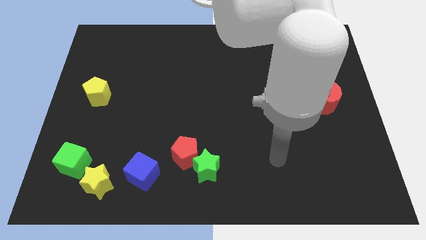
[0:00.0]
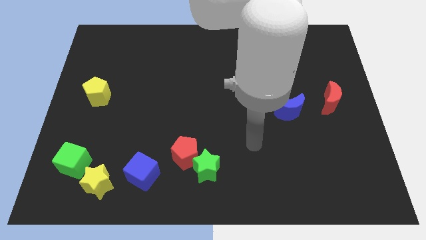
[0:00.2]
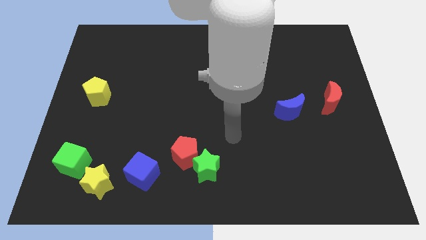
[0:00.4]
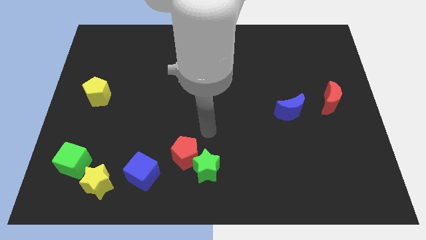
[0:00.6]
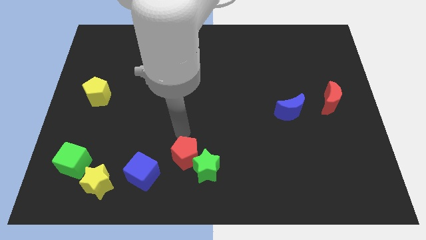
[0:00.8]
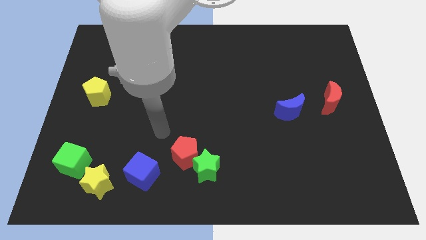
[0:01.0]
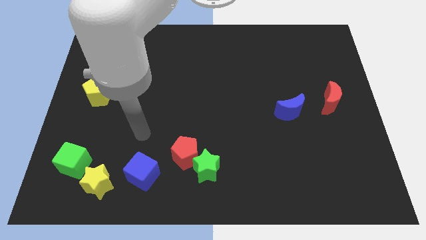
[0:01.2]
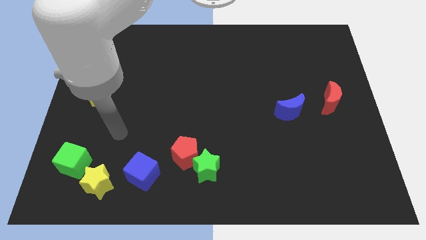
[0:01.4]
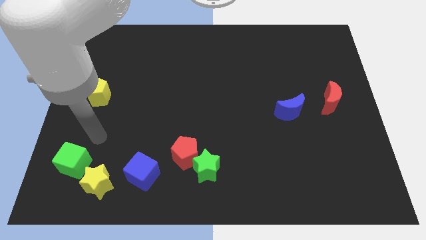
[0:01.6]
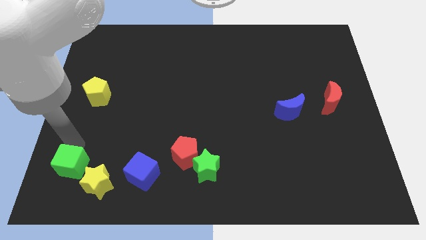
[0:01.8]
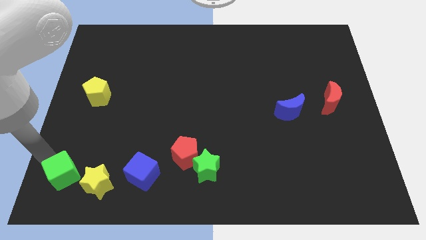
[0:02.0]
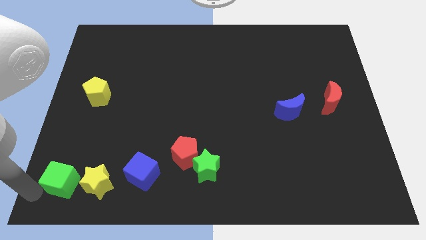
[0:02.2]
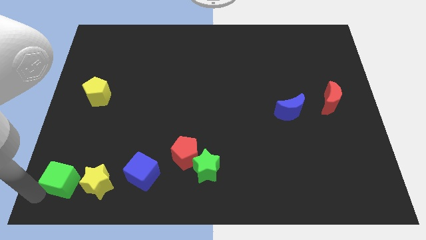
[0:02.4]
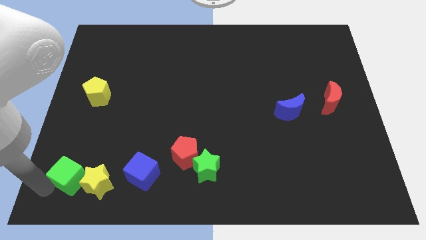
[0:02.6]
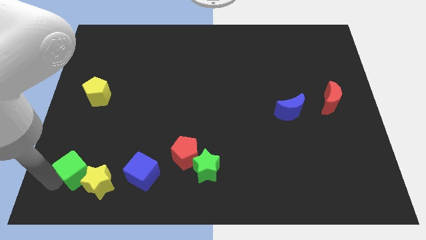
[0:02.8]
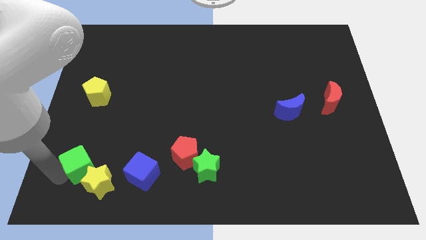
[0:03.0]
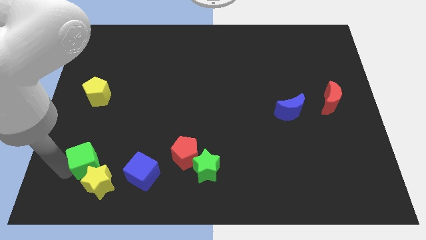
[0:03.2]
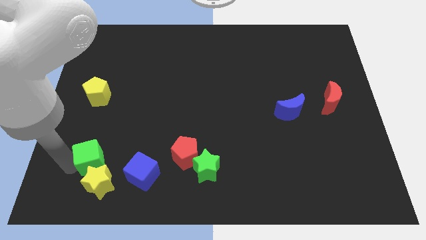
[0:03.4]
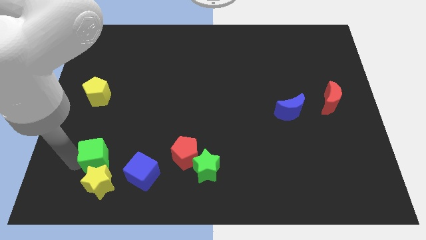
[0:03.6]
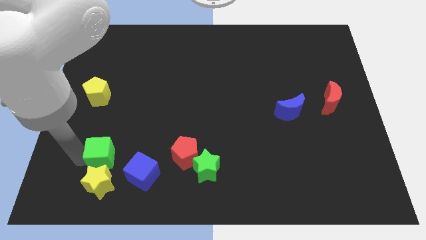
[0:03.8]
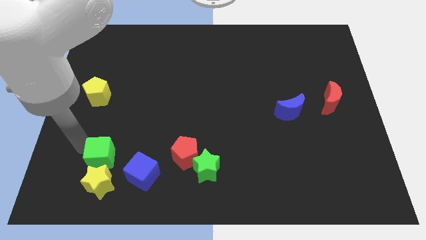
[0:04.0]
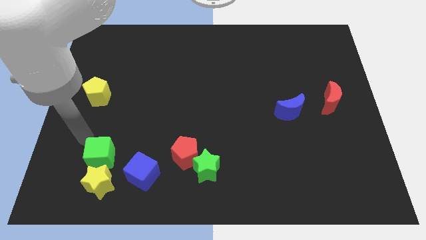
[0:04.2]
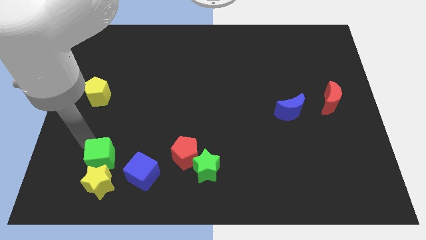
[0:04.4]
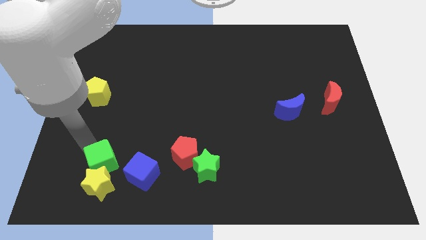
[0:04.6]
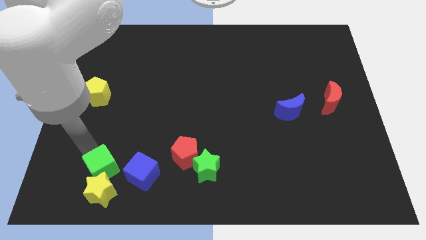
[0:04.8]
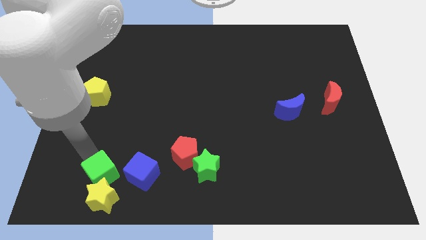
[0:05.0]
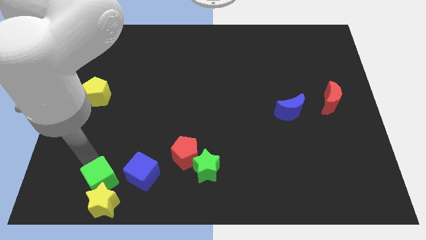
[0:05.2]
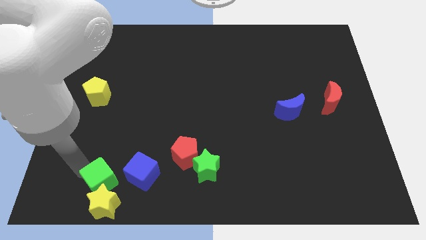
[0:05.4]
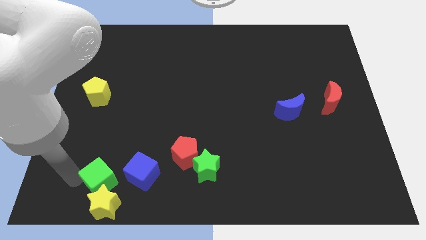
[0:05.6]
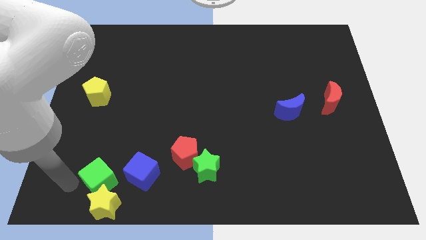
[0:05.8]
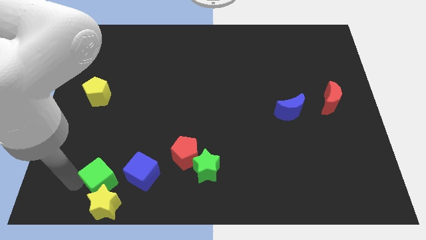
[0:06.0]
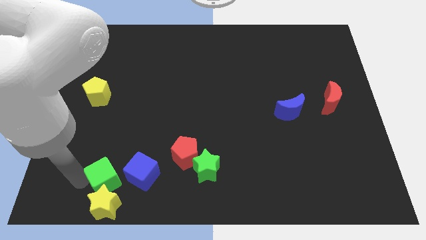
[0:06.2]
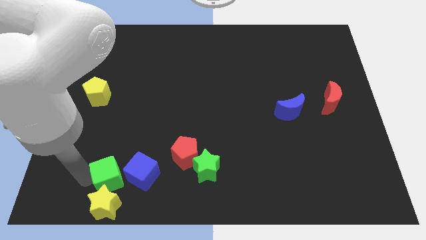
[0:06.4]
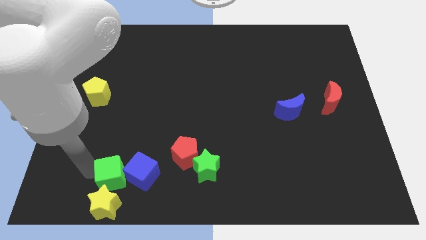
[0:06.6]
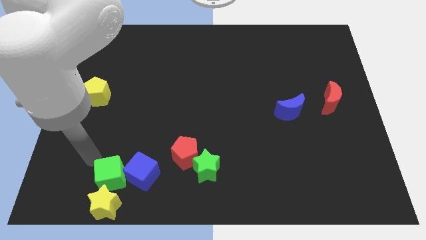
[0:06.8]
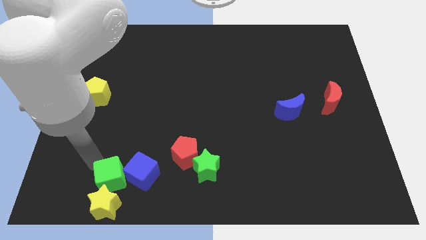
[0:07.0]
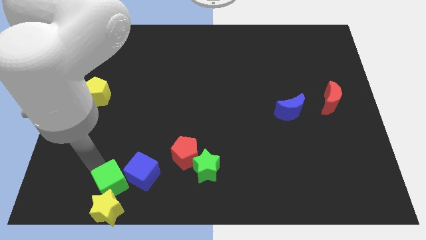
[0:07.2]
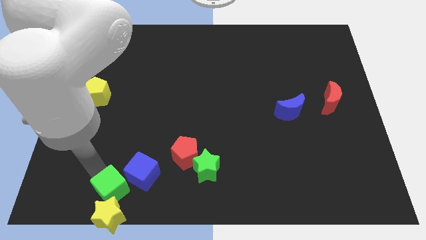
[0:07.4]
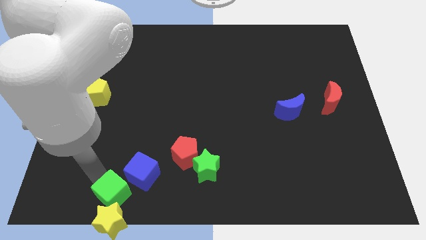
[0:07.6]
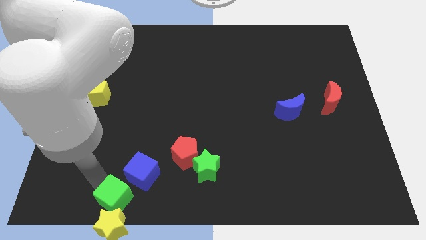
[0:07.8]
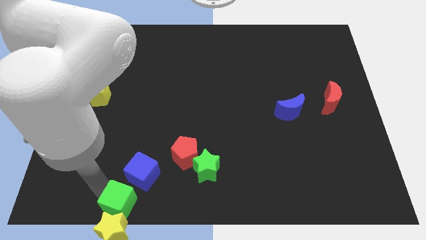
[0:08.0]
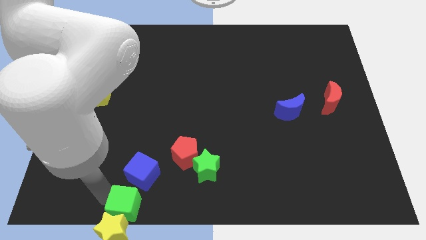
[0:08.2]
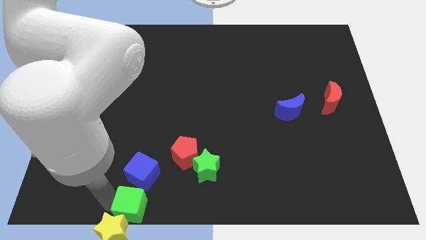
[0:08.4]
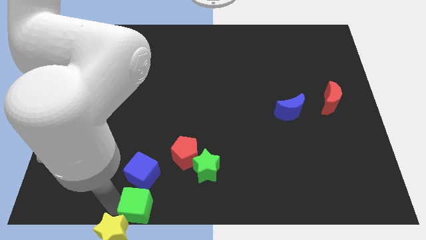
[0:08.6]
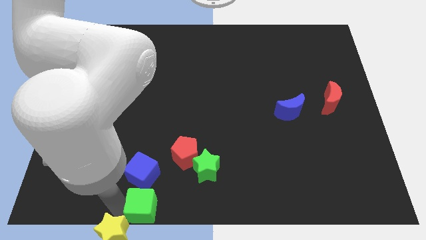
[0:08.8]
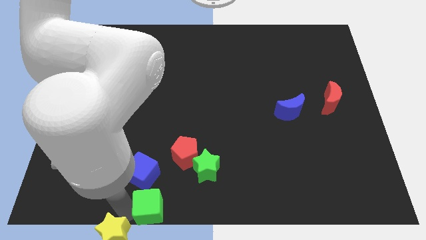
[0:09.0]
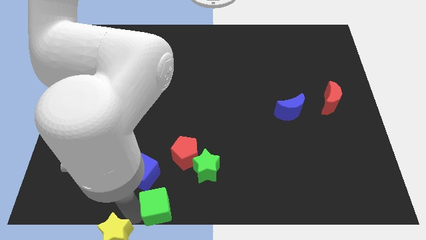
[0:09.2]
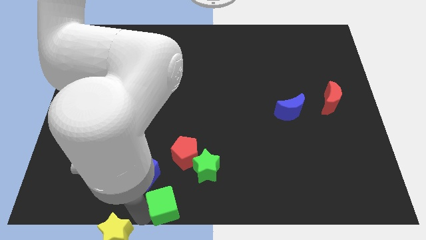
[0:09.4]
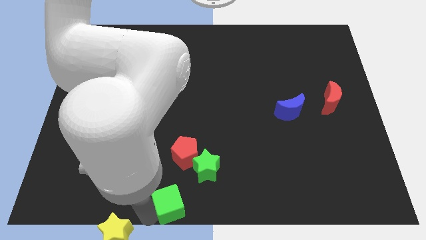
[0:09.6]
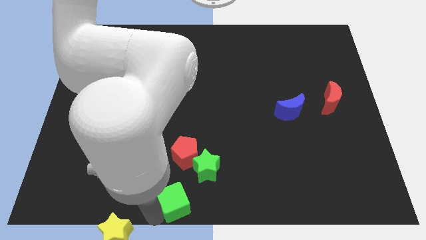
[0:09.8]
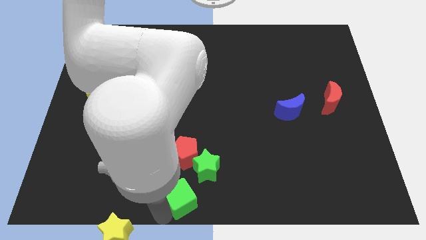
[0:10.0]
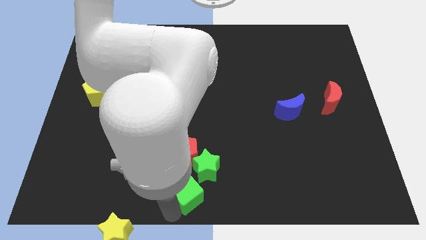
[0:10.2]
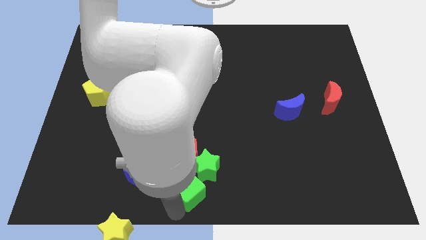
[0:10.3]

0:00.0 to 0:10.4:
slide the green cube close to the green star

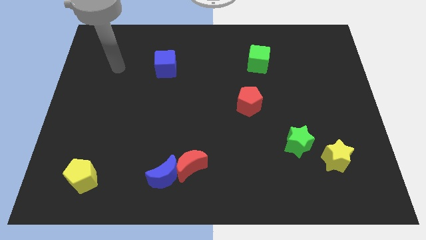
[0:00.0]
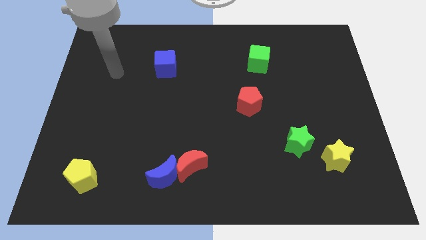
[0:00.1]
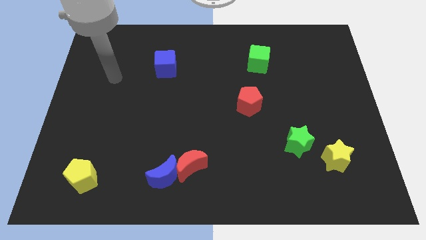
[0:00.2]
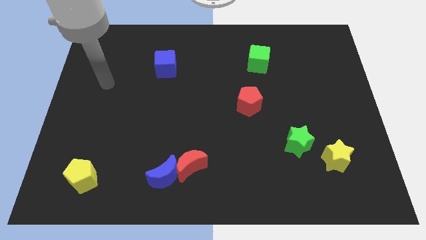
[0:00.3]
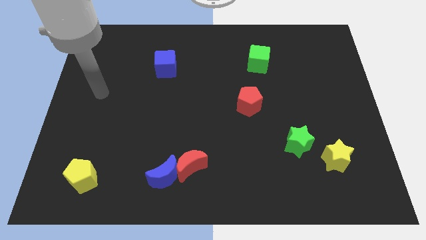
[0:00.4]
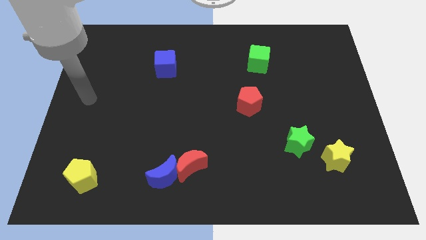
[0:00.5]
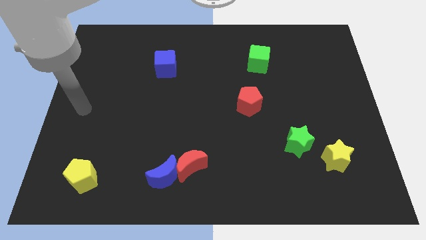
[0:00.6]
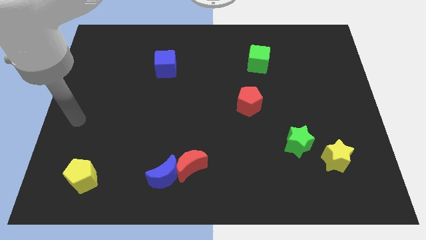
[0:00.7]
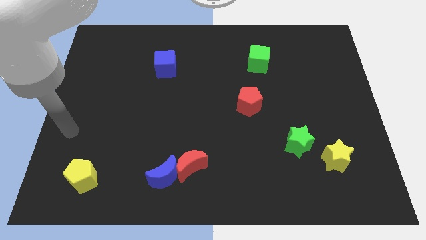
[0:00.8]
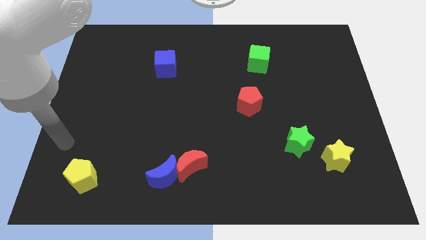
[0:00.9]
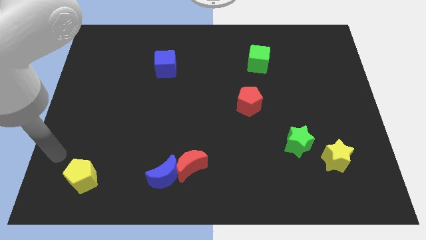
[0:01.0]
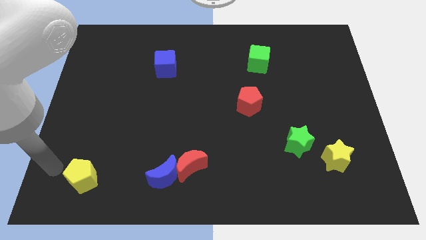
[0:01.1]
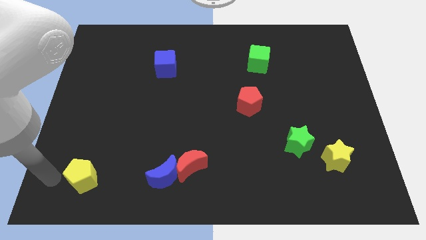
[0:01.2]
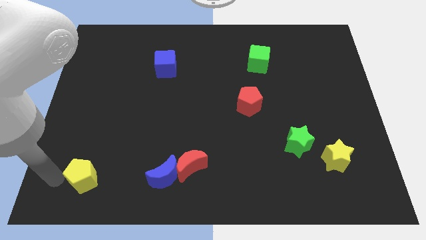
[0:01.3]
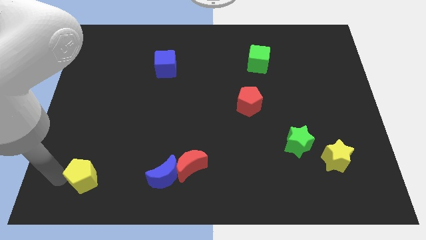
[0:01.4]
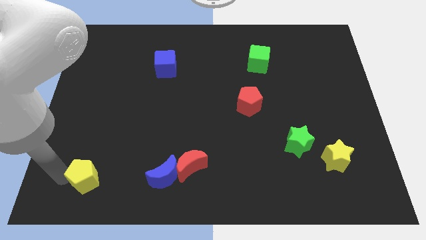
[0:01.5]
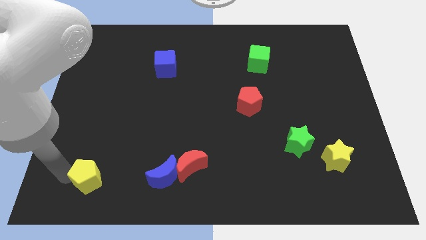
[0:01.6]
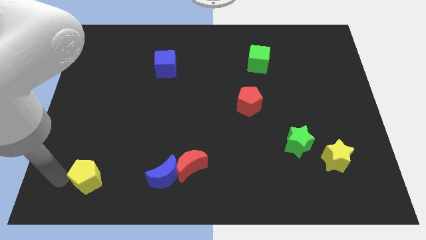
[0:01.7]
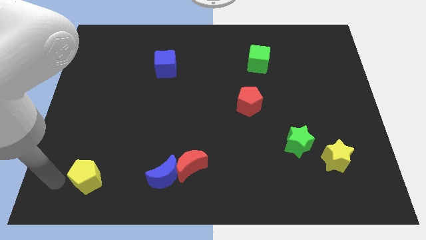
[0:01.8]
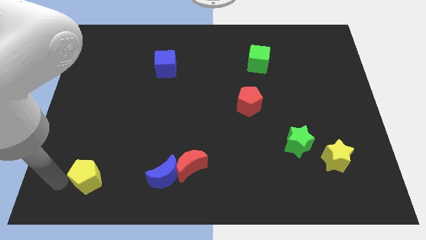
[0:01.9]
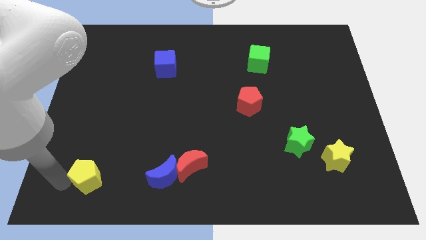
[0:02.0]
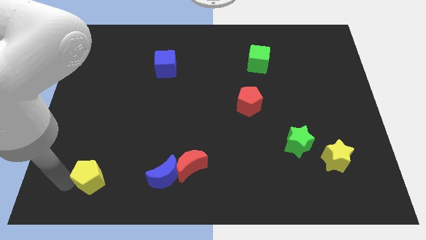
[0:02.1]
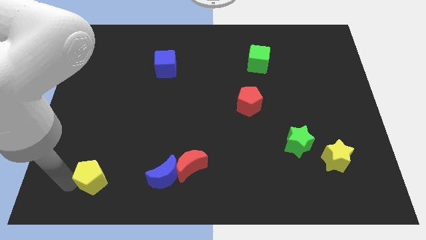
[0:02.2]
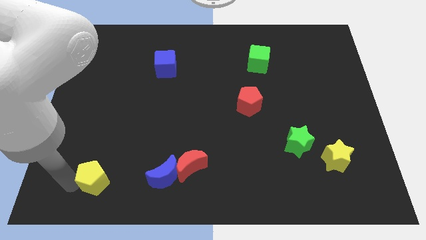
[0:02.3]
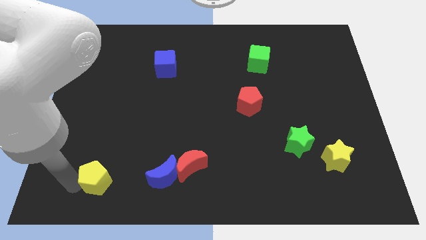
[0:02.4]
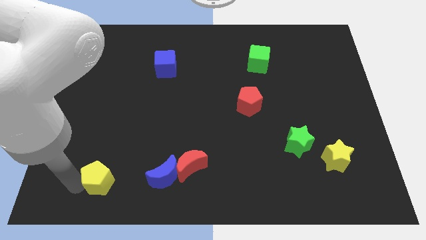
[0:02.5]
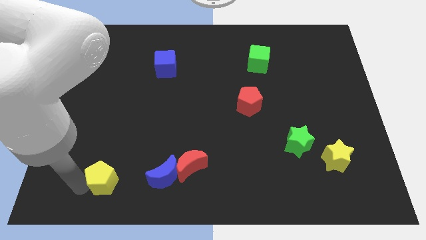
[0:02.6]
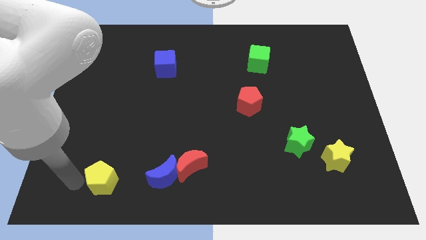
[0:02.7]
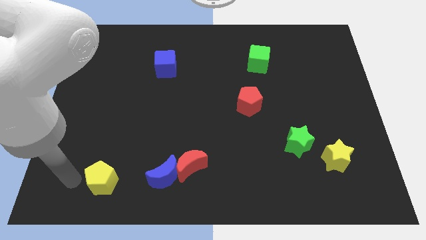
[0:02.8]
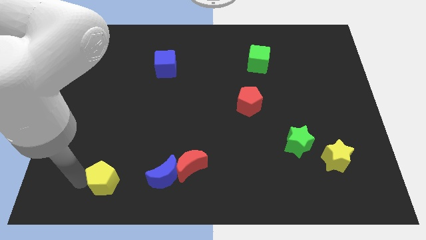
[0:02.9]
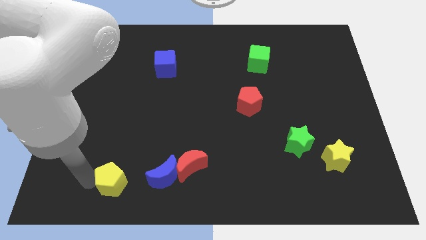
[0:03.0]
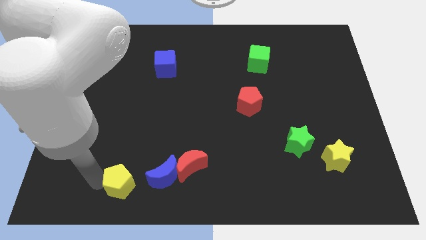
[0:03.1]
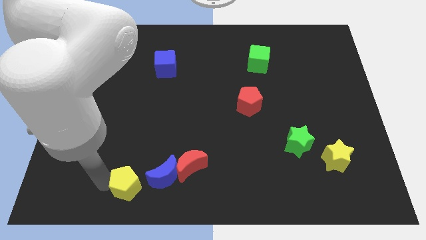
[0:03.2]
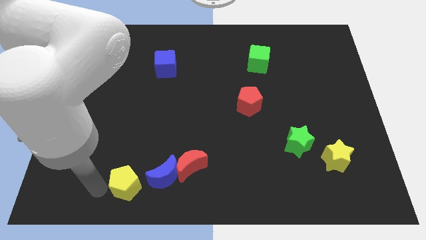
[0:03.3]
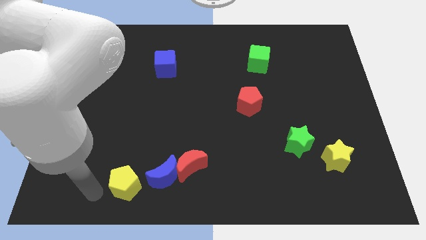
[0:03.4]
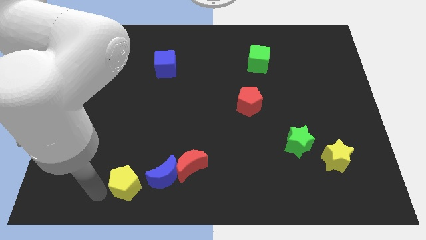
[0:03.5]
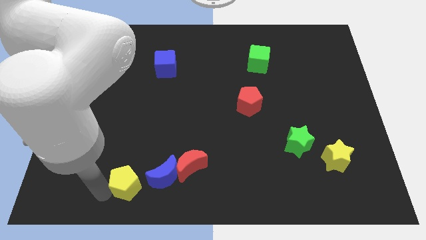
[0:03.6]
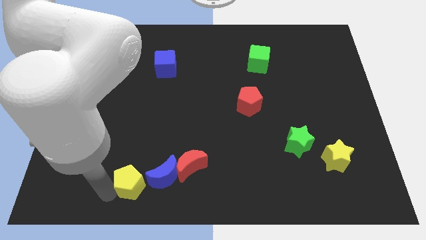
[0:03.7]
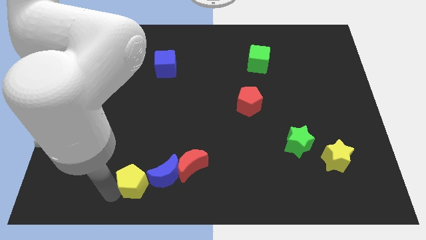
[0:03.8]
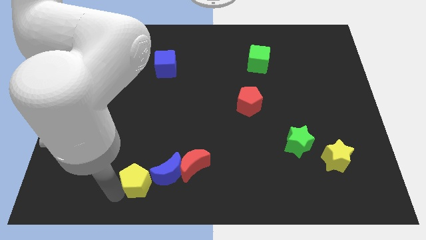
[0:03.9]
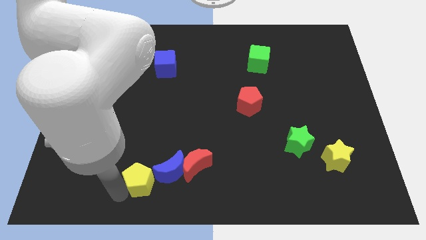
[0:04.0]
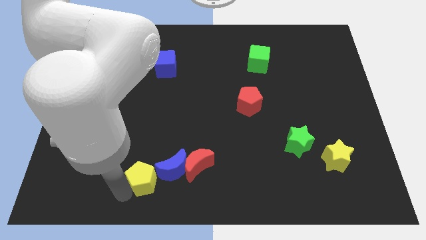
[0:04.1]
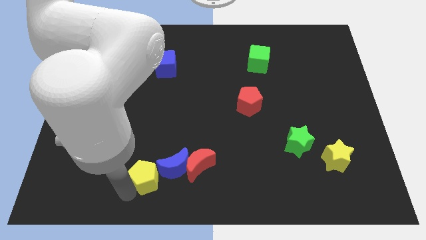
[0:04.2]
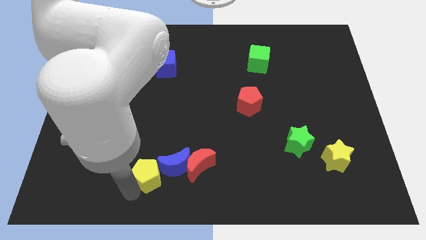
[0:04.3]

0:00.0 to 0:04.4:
push the yellow pentagon next to the blue moon
